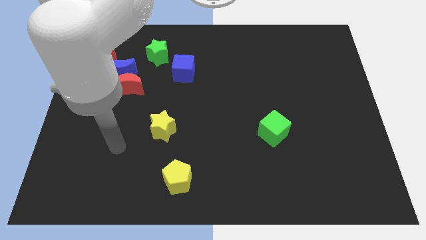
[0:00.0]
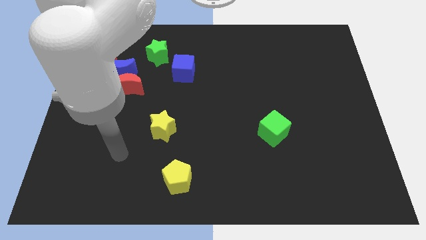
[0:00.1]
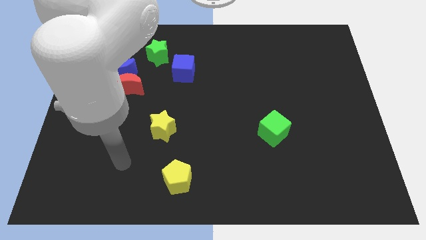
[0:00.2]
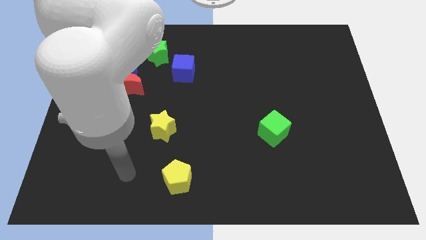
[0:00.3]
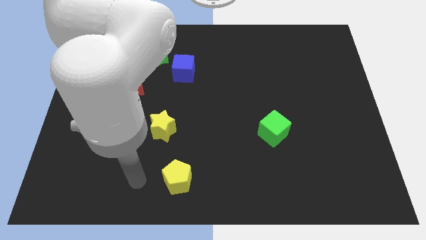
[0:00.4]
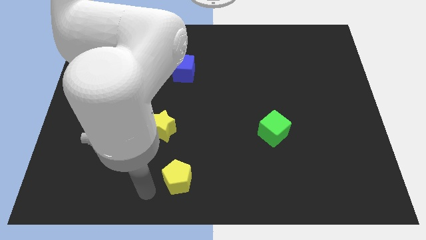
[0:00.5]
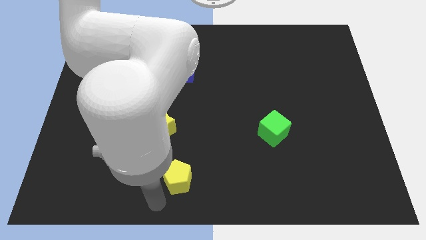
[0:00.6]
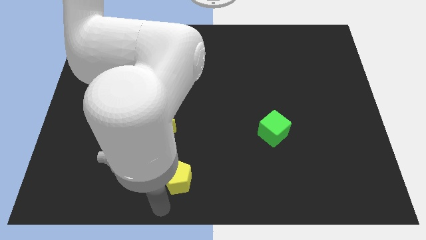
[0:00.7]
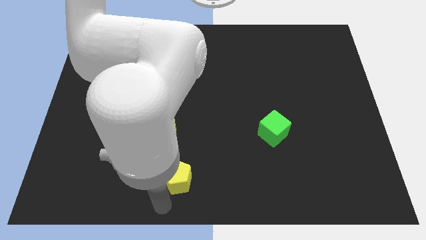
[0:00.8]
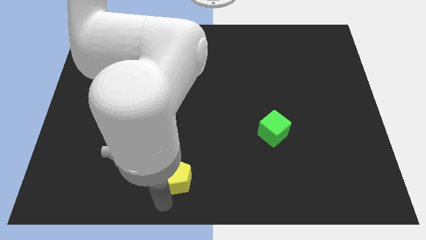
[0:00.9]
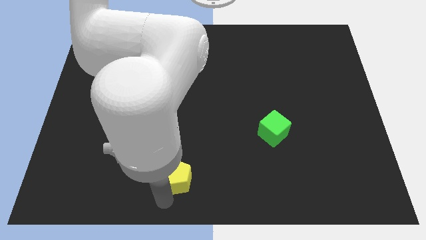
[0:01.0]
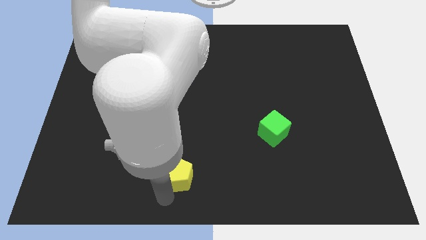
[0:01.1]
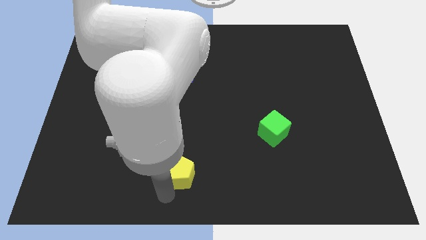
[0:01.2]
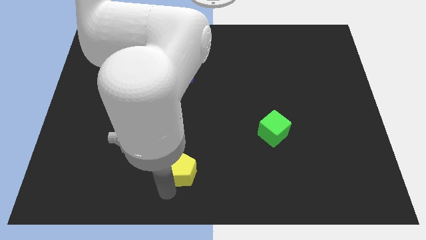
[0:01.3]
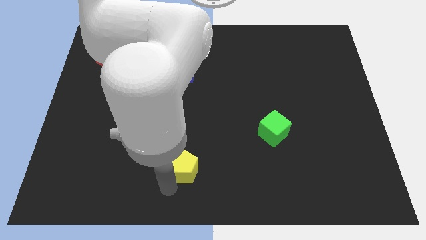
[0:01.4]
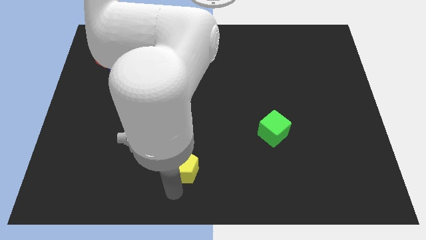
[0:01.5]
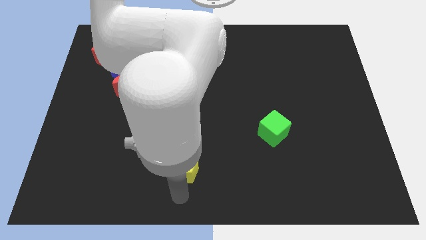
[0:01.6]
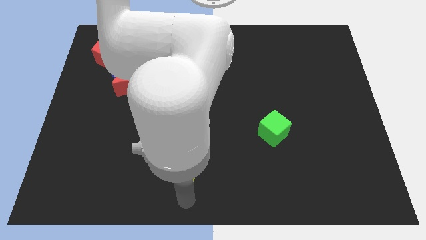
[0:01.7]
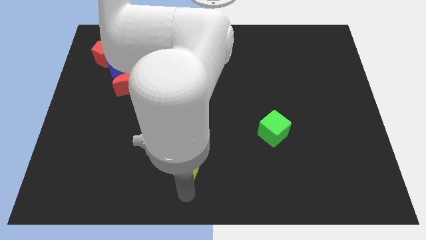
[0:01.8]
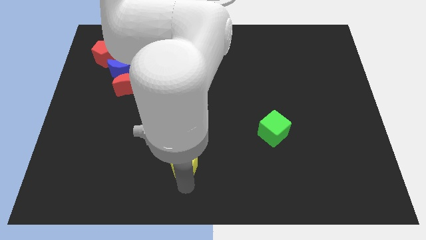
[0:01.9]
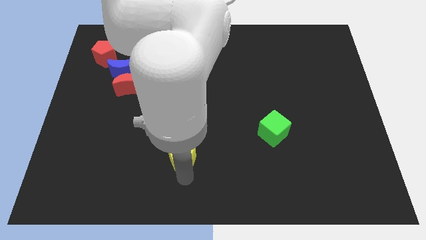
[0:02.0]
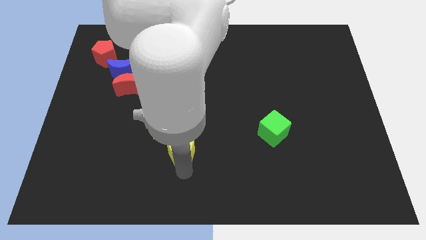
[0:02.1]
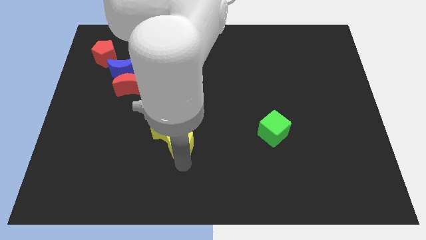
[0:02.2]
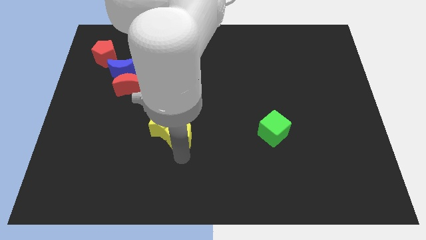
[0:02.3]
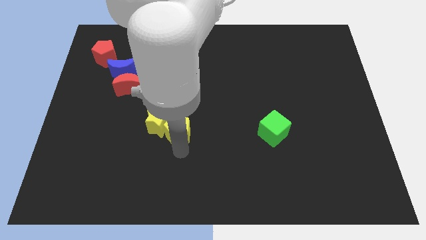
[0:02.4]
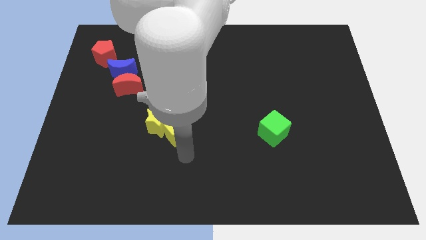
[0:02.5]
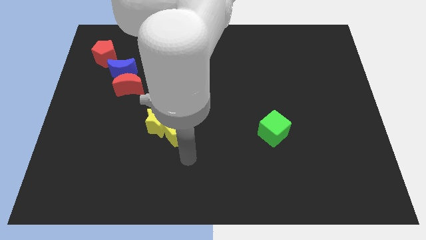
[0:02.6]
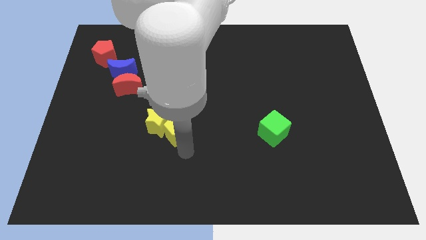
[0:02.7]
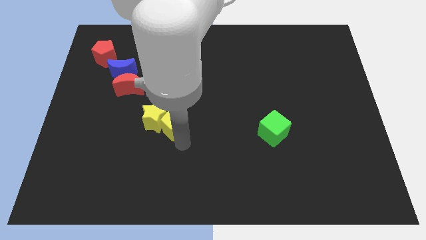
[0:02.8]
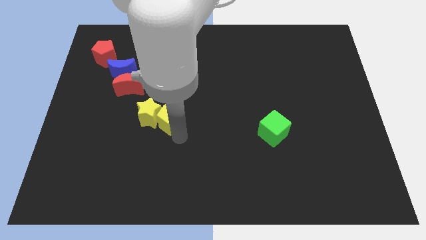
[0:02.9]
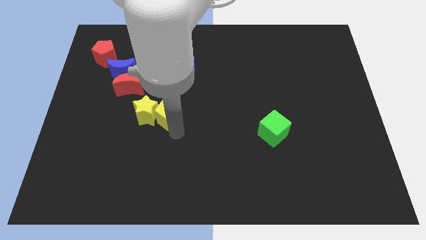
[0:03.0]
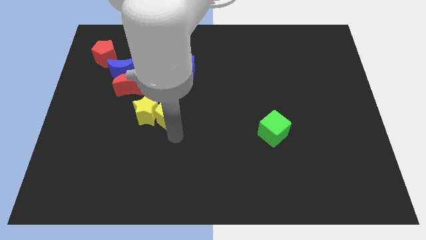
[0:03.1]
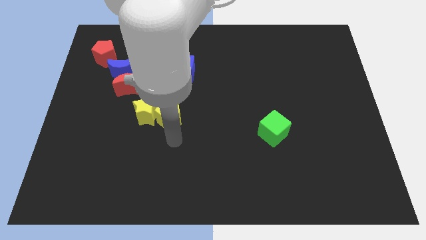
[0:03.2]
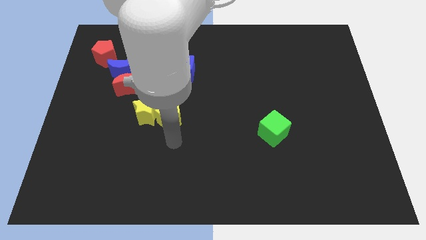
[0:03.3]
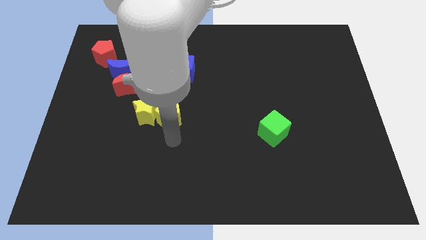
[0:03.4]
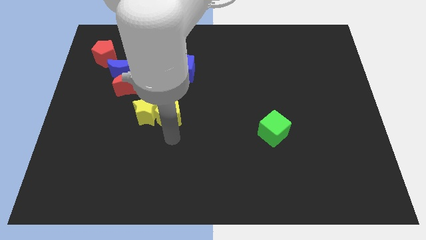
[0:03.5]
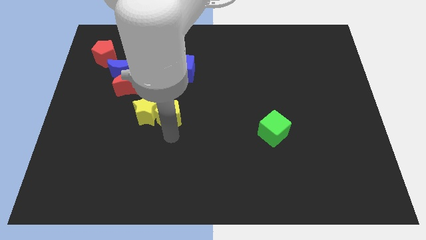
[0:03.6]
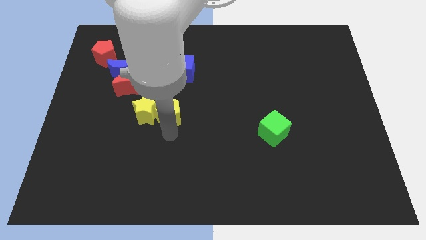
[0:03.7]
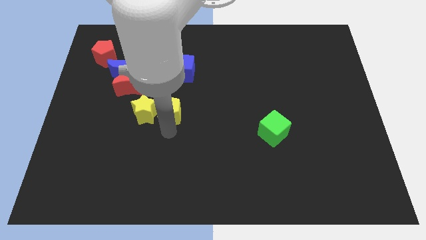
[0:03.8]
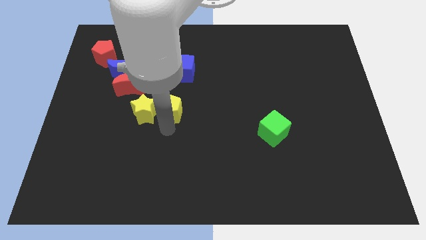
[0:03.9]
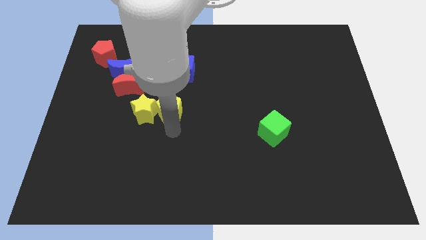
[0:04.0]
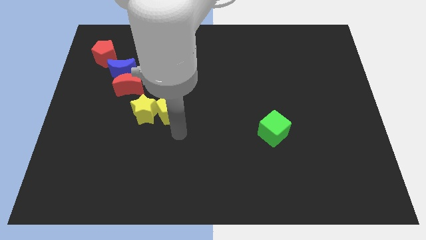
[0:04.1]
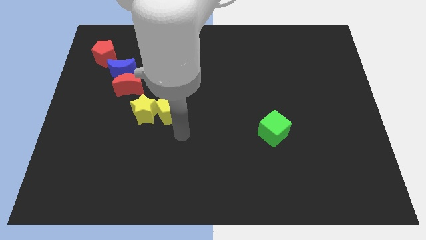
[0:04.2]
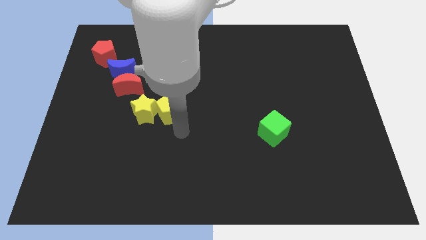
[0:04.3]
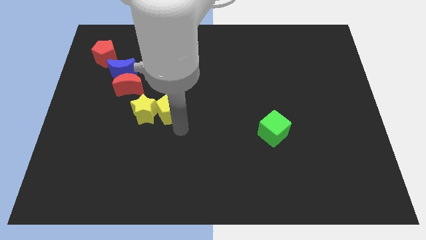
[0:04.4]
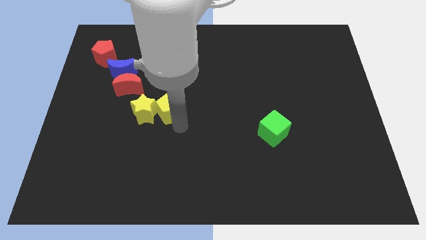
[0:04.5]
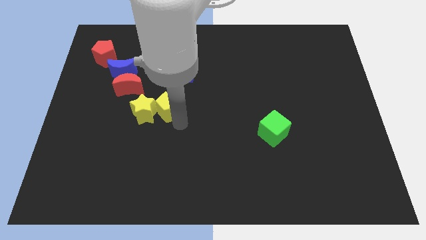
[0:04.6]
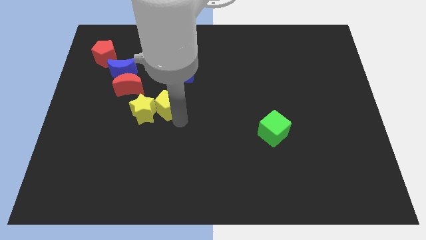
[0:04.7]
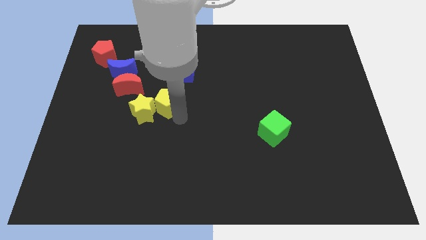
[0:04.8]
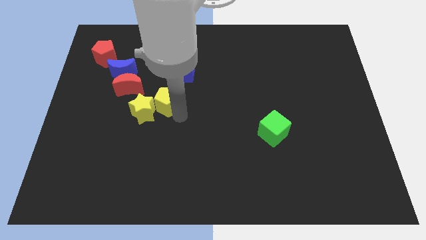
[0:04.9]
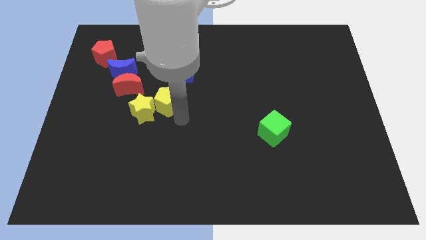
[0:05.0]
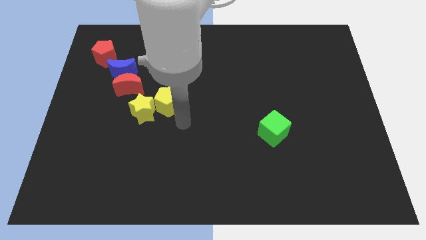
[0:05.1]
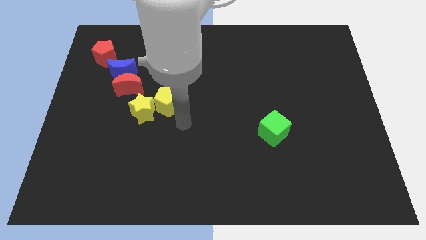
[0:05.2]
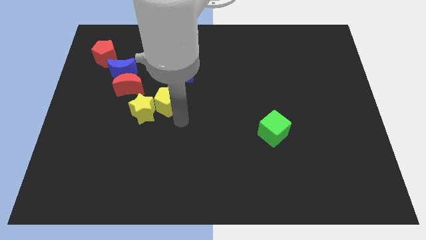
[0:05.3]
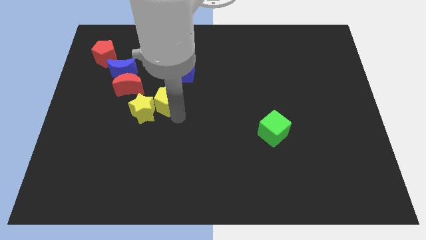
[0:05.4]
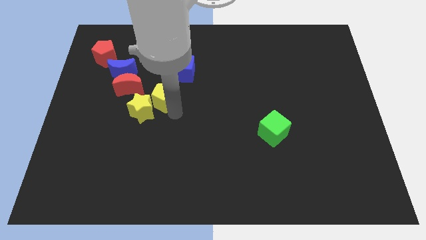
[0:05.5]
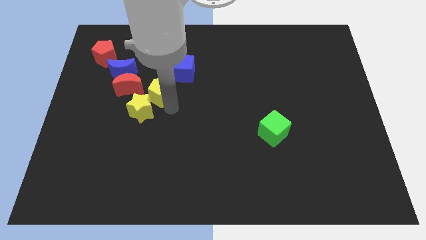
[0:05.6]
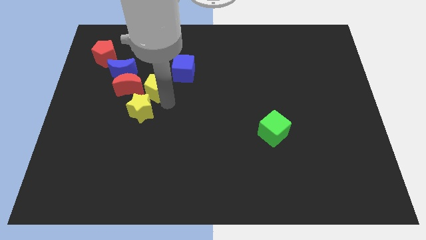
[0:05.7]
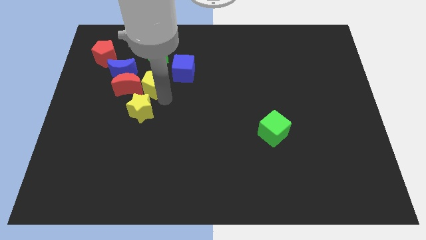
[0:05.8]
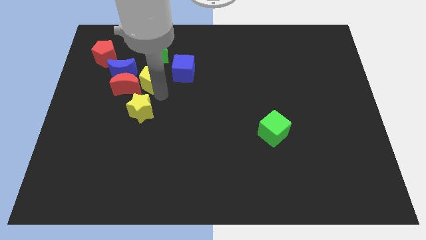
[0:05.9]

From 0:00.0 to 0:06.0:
put the yellow pentagon to the left side of the blue cube
